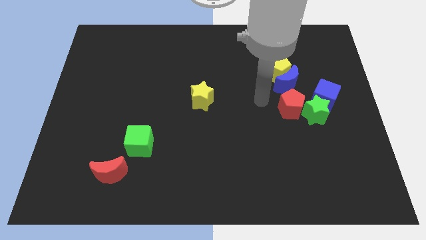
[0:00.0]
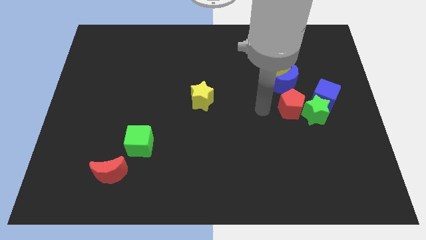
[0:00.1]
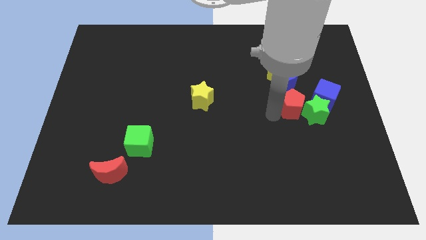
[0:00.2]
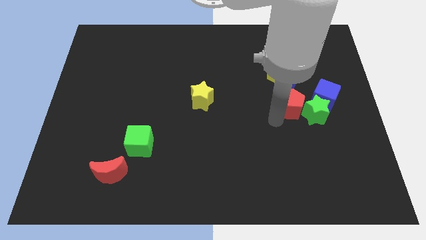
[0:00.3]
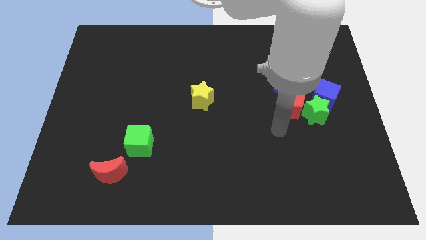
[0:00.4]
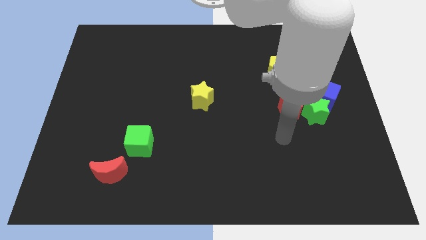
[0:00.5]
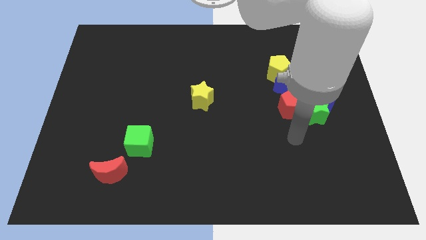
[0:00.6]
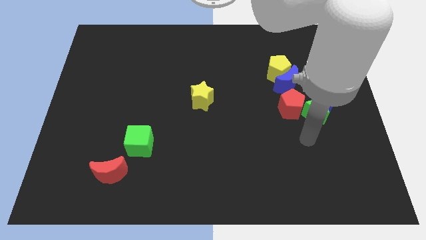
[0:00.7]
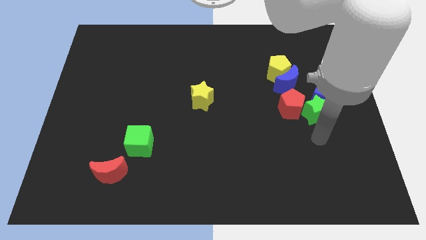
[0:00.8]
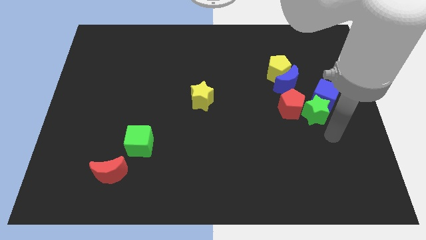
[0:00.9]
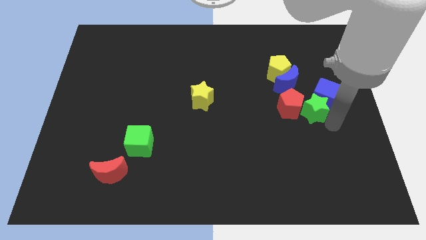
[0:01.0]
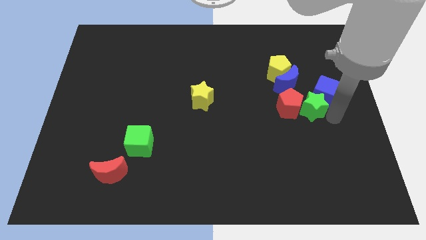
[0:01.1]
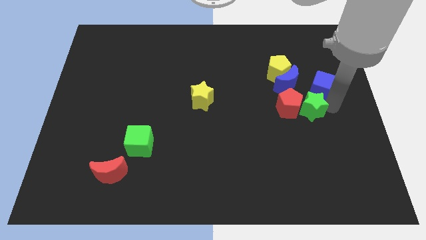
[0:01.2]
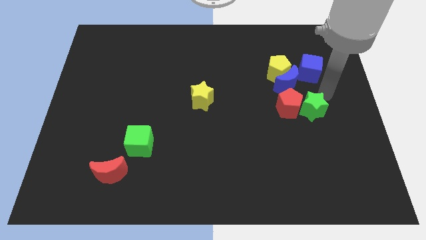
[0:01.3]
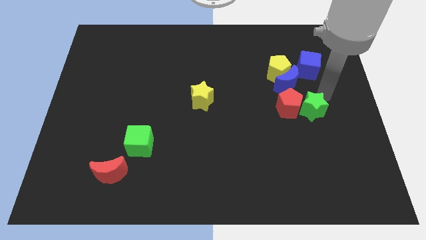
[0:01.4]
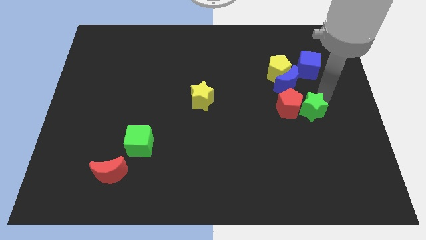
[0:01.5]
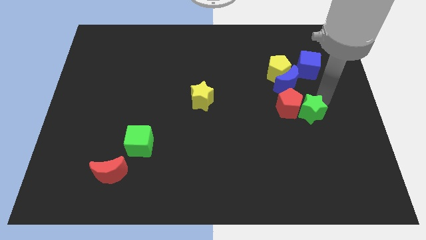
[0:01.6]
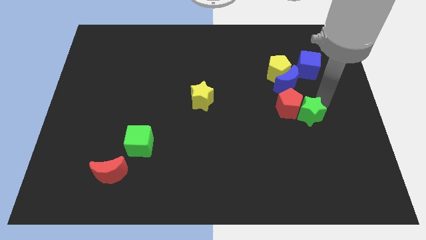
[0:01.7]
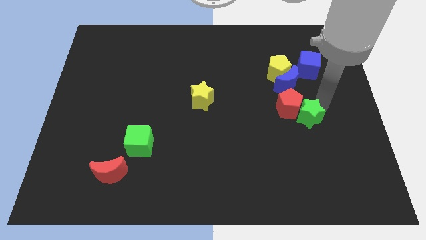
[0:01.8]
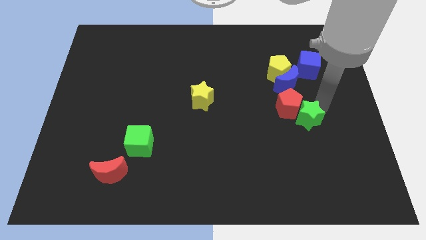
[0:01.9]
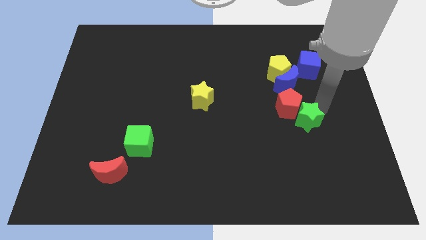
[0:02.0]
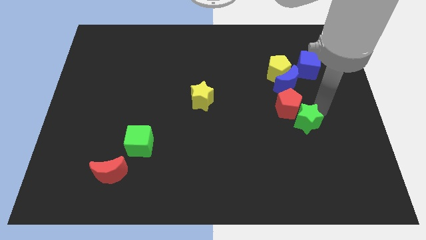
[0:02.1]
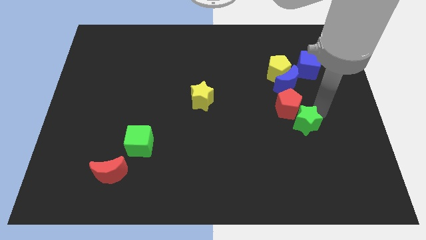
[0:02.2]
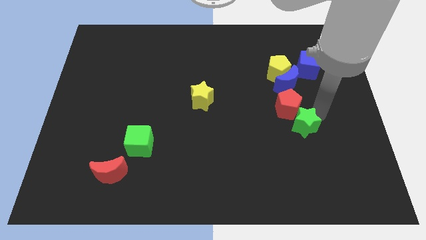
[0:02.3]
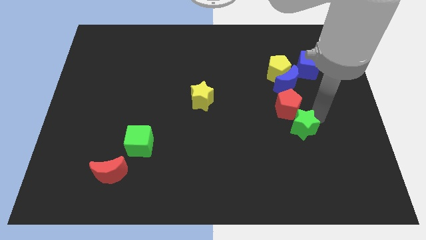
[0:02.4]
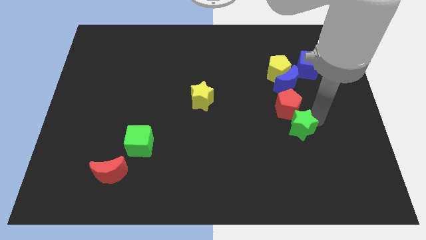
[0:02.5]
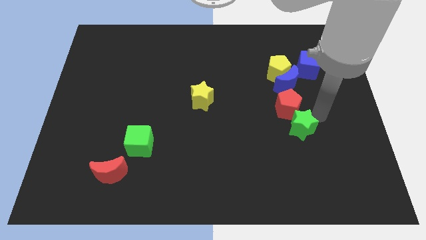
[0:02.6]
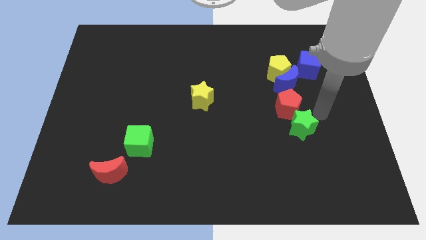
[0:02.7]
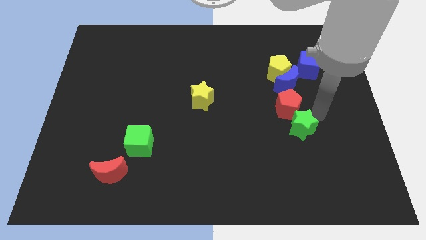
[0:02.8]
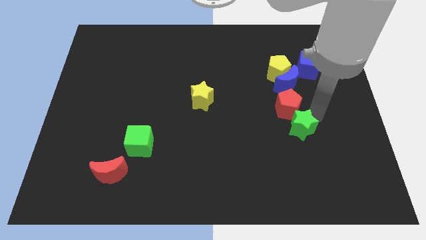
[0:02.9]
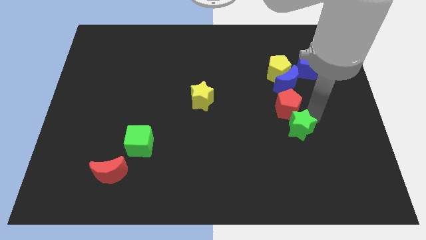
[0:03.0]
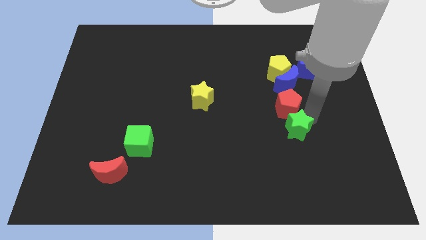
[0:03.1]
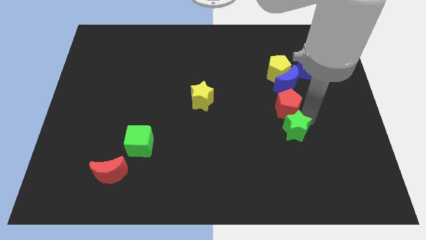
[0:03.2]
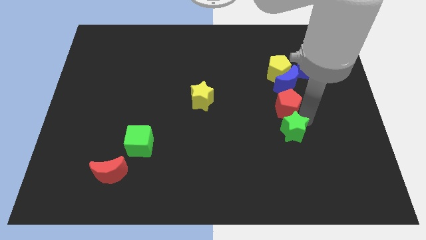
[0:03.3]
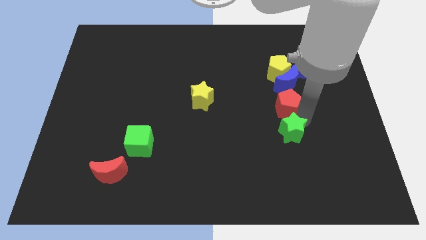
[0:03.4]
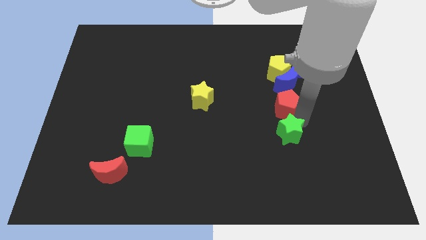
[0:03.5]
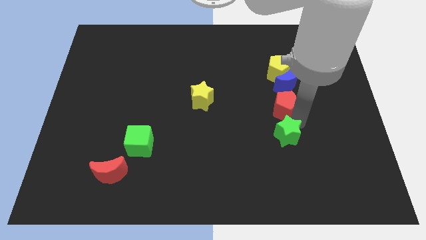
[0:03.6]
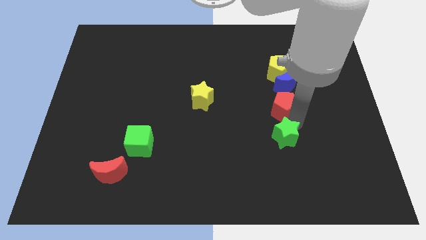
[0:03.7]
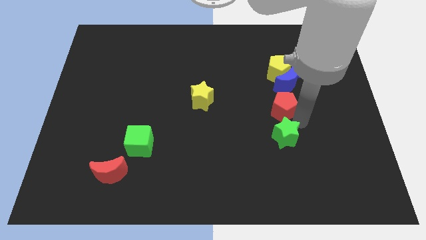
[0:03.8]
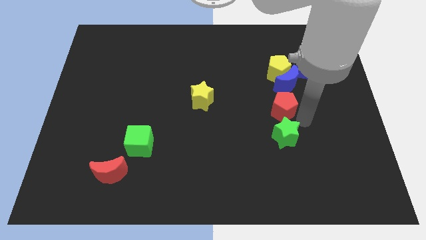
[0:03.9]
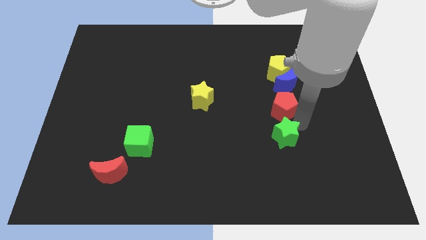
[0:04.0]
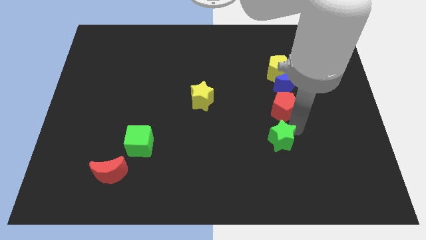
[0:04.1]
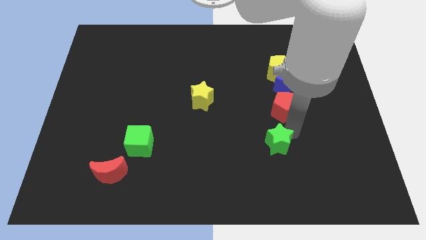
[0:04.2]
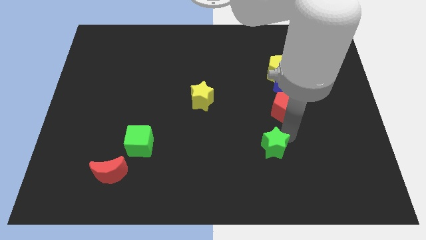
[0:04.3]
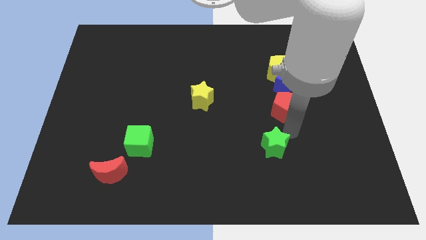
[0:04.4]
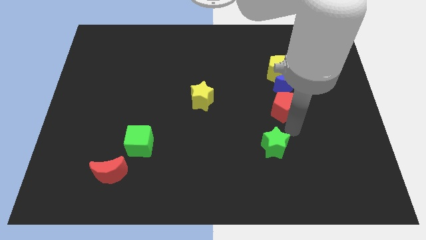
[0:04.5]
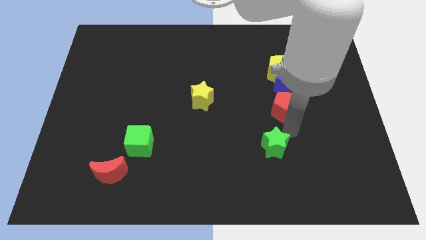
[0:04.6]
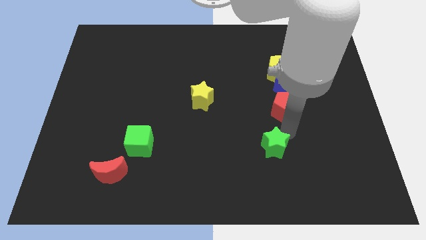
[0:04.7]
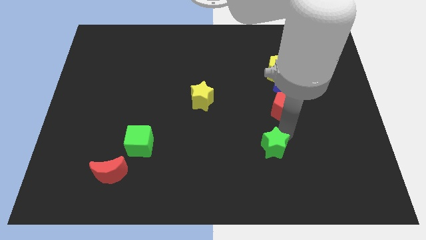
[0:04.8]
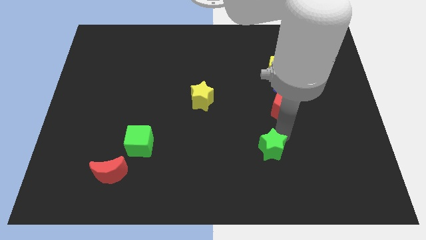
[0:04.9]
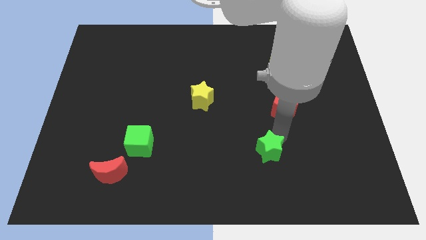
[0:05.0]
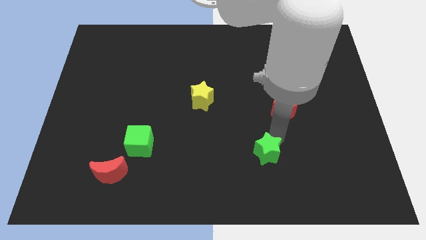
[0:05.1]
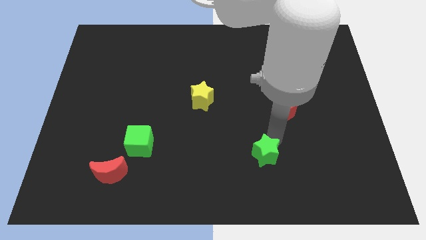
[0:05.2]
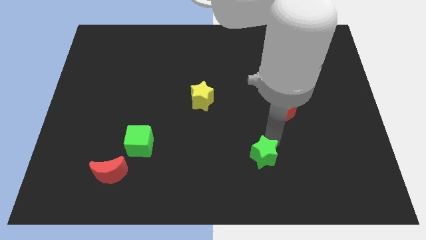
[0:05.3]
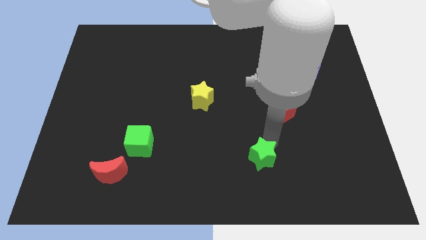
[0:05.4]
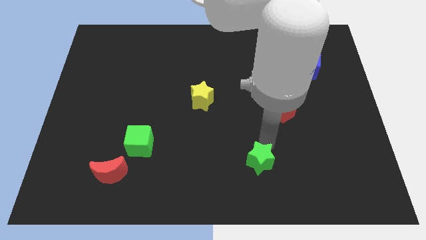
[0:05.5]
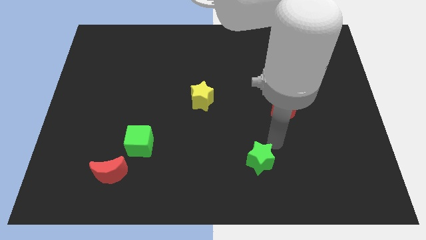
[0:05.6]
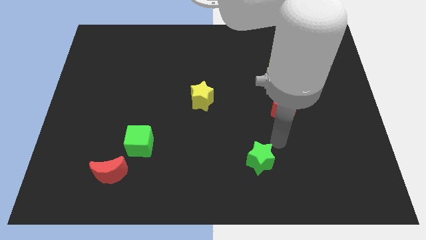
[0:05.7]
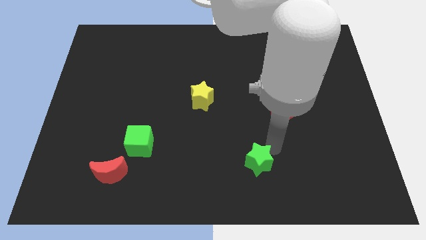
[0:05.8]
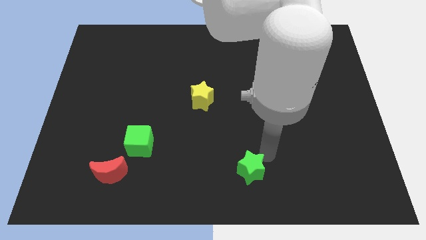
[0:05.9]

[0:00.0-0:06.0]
push the green star to the bottom side
